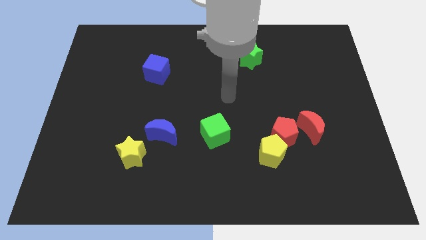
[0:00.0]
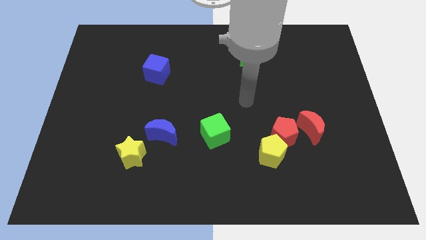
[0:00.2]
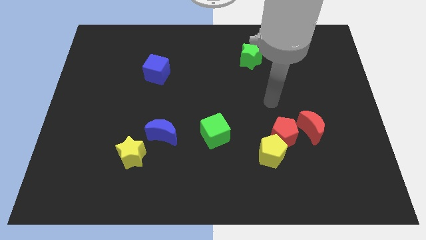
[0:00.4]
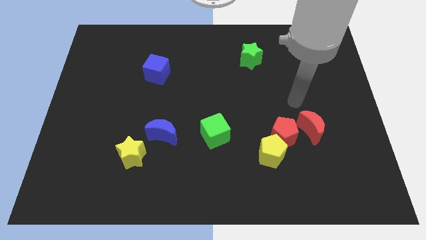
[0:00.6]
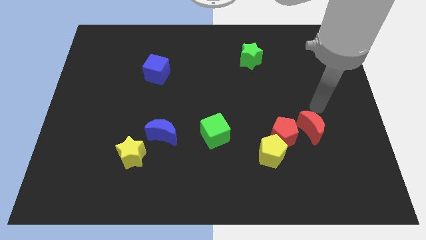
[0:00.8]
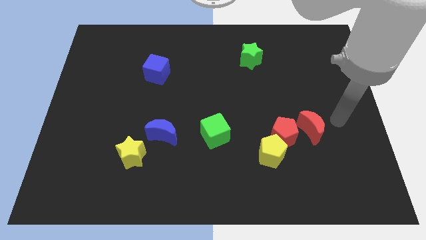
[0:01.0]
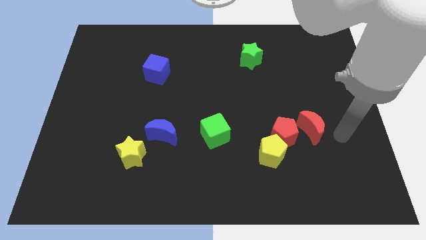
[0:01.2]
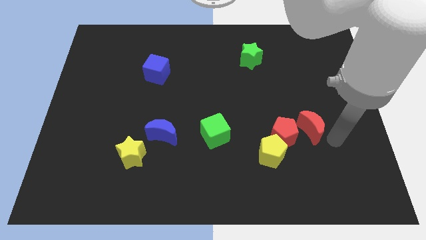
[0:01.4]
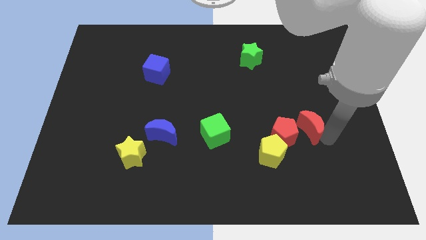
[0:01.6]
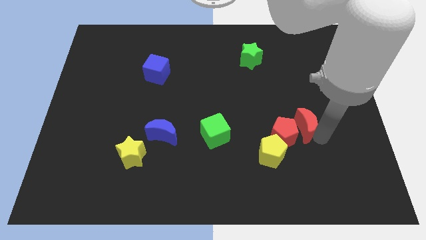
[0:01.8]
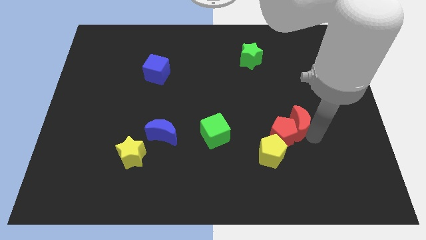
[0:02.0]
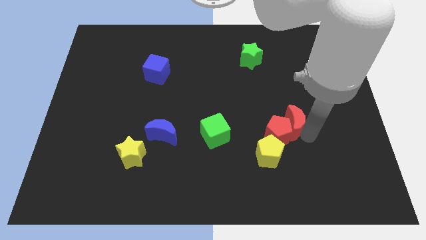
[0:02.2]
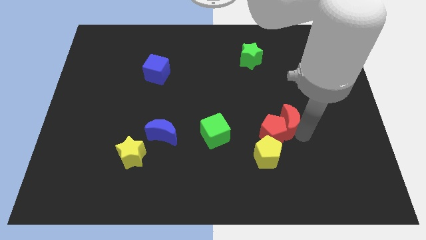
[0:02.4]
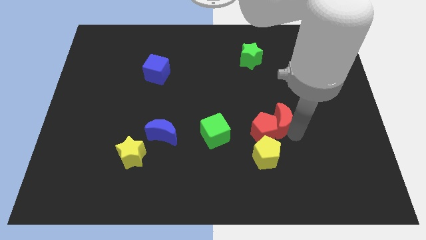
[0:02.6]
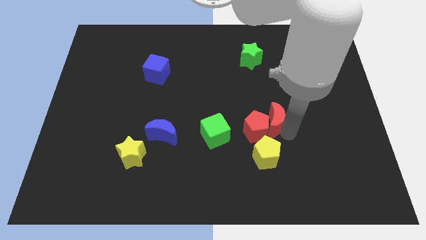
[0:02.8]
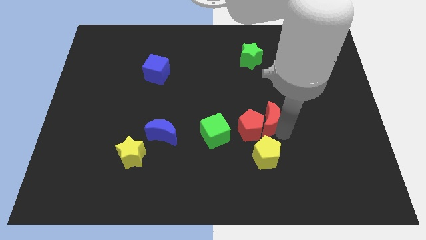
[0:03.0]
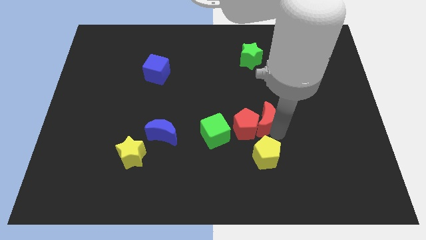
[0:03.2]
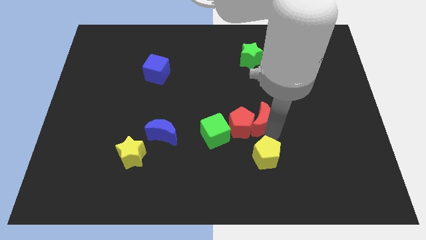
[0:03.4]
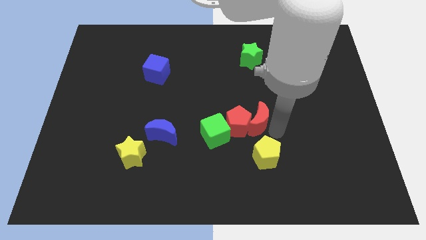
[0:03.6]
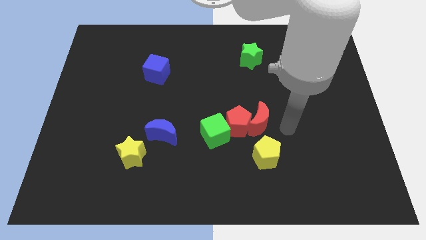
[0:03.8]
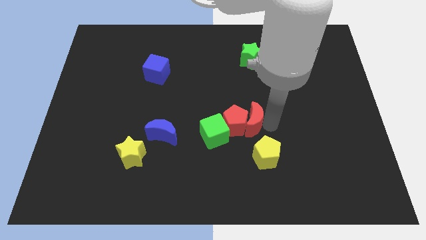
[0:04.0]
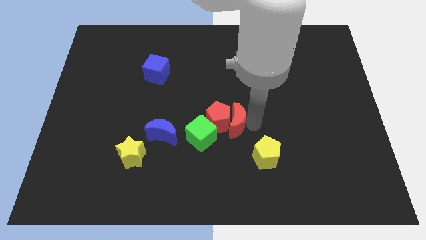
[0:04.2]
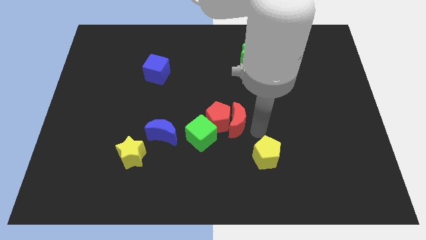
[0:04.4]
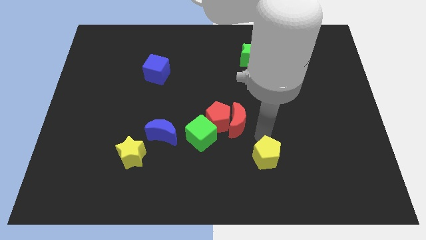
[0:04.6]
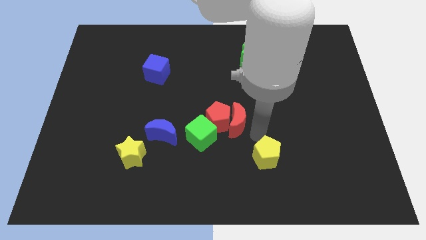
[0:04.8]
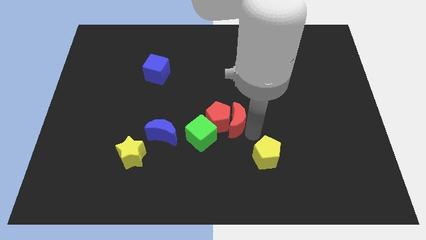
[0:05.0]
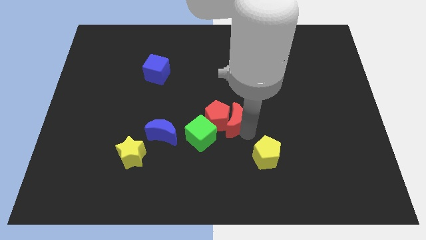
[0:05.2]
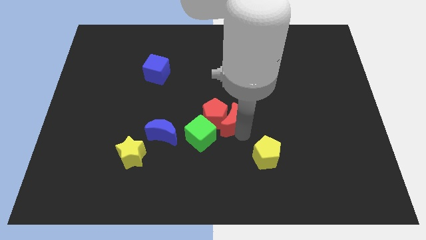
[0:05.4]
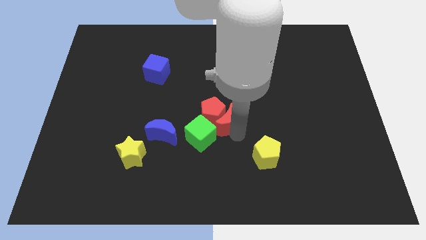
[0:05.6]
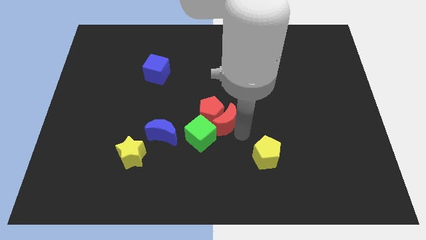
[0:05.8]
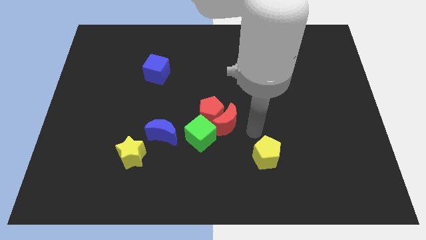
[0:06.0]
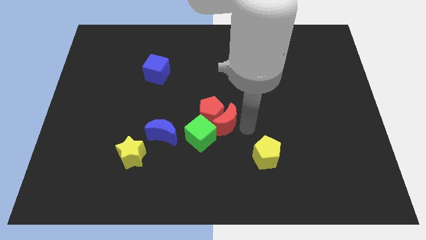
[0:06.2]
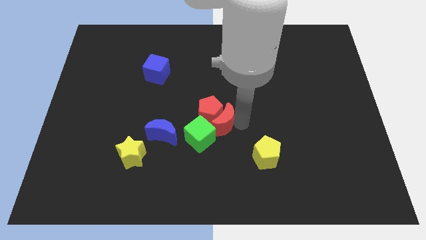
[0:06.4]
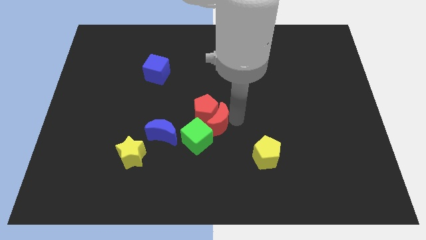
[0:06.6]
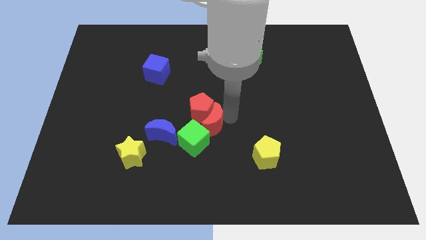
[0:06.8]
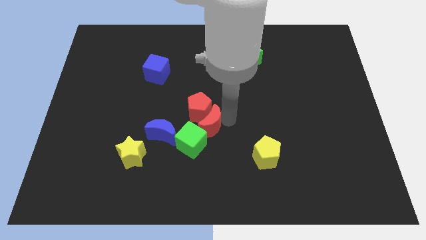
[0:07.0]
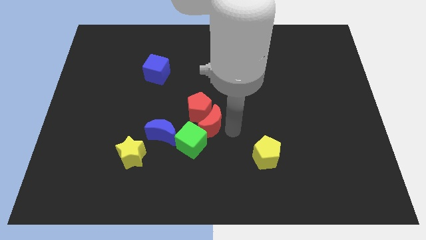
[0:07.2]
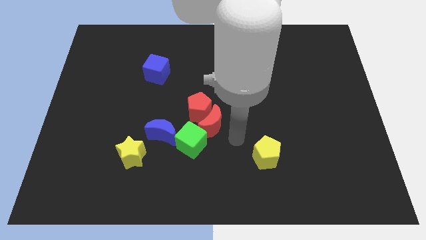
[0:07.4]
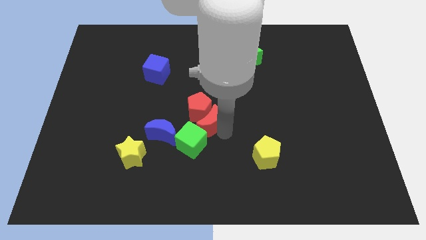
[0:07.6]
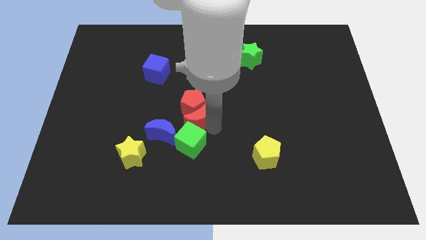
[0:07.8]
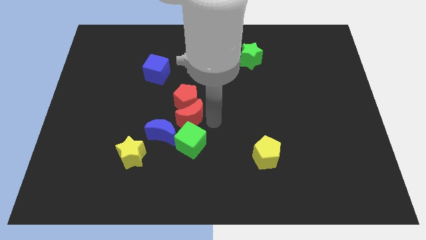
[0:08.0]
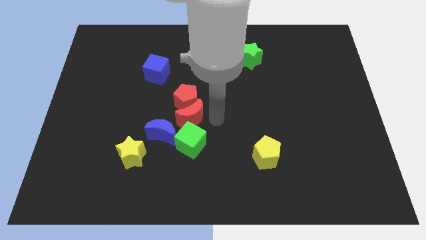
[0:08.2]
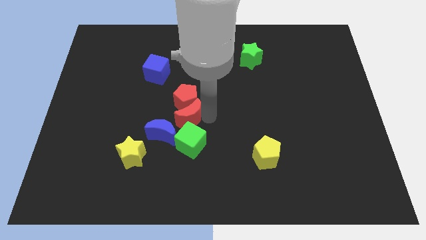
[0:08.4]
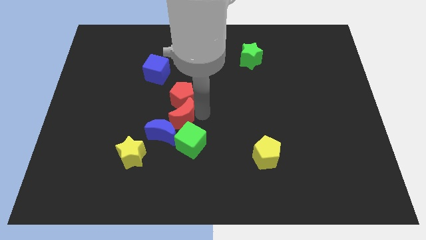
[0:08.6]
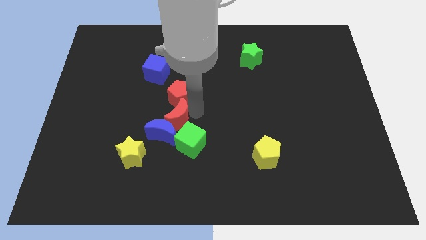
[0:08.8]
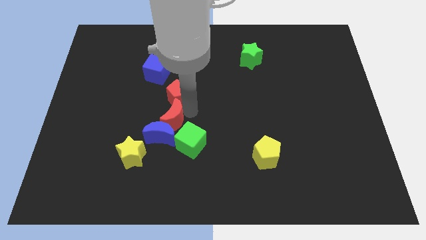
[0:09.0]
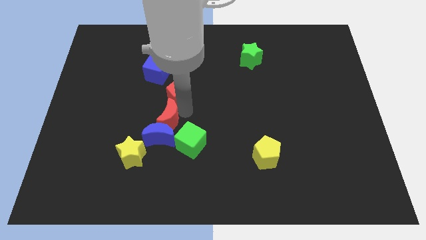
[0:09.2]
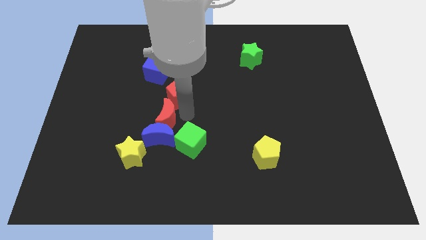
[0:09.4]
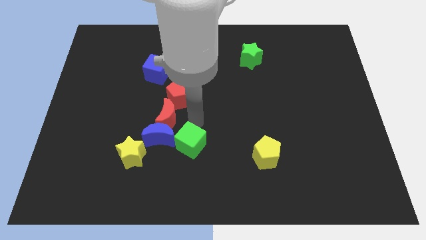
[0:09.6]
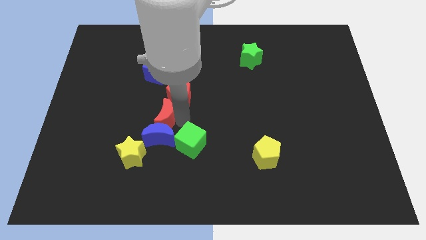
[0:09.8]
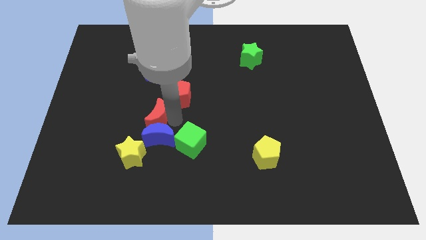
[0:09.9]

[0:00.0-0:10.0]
move the red moon to the top of the yellow star

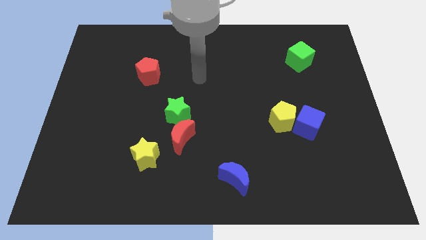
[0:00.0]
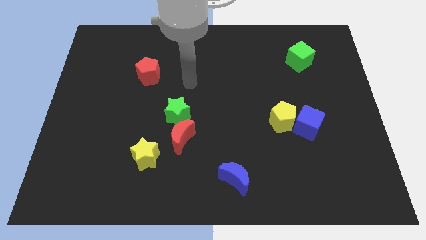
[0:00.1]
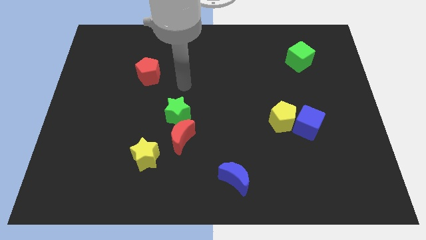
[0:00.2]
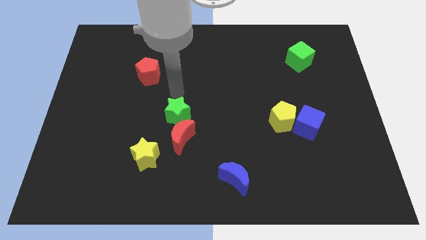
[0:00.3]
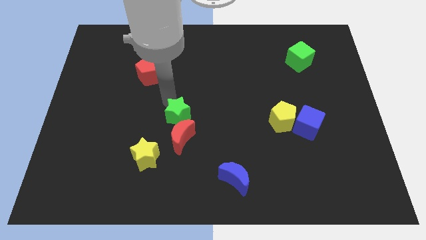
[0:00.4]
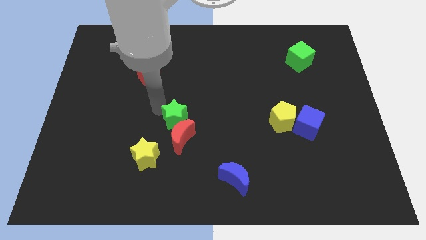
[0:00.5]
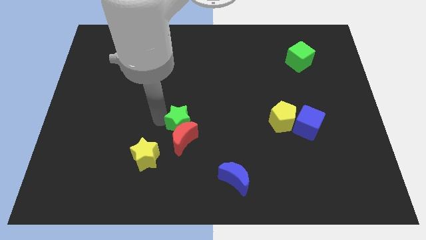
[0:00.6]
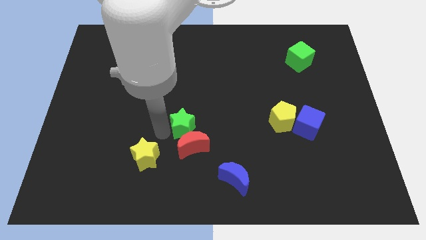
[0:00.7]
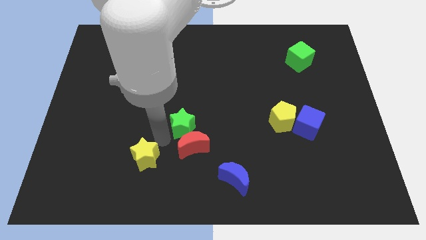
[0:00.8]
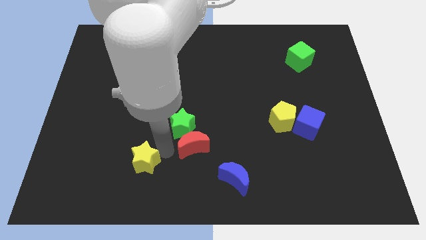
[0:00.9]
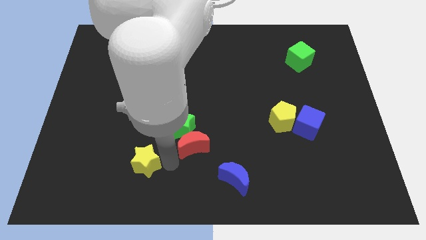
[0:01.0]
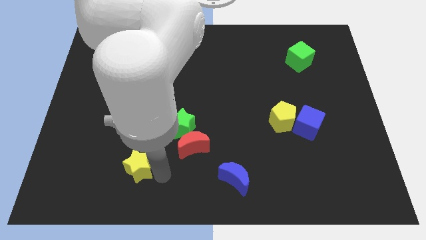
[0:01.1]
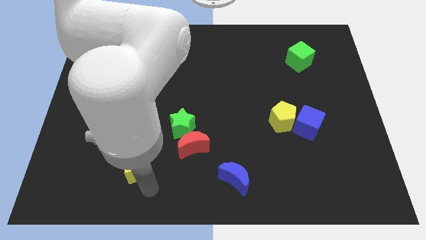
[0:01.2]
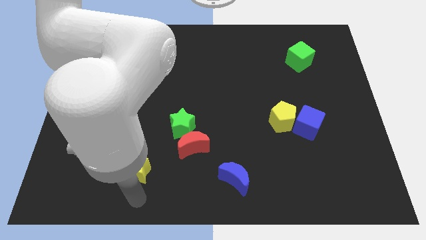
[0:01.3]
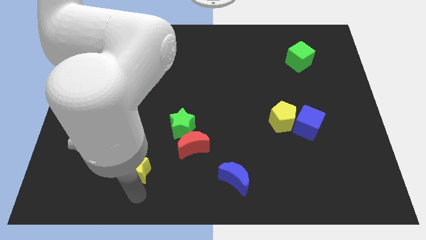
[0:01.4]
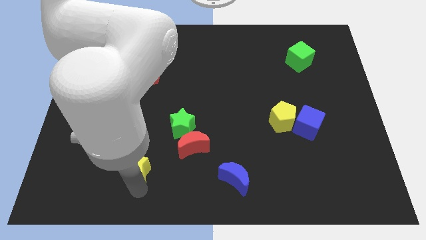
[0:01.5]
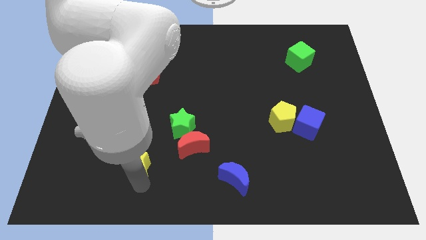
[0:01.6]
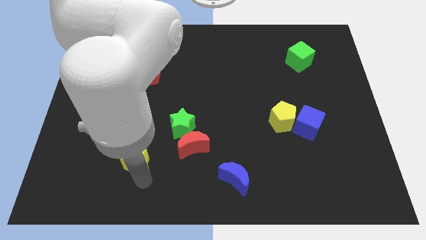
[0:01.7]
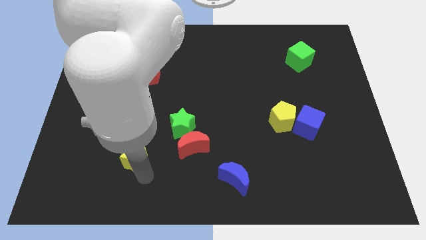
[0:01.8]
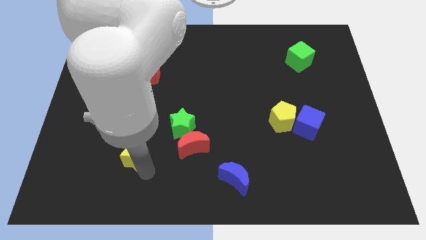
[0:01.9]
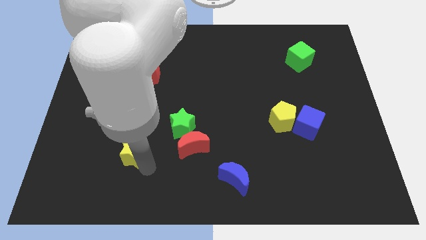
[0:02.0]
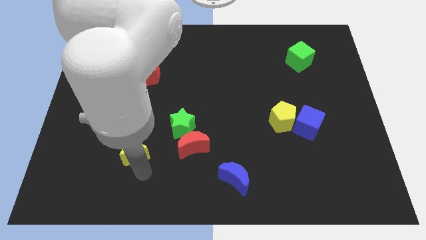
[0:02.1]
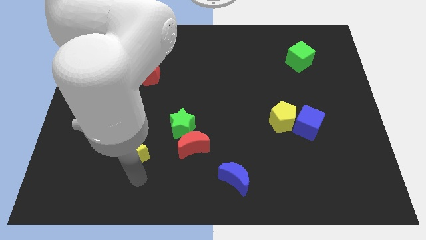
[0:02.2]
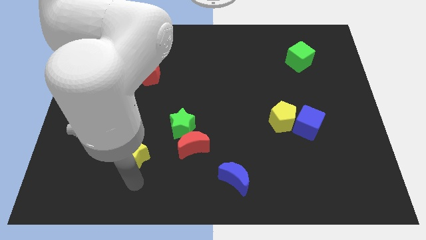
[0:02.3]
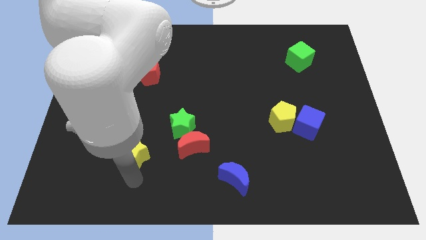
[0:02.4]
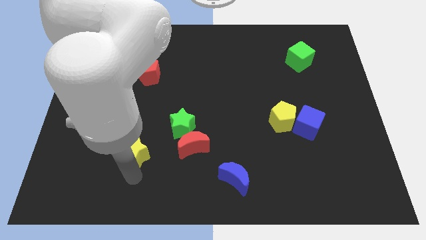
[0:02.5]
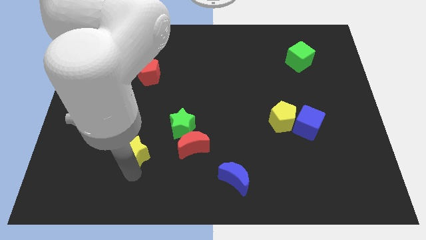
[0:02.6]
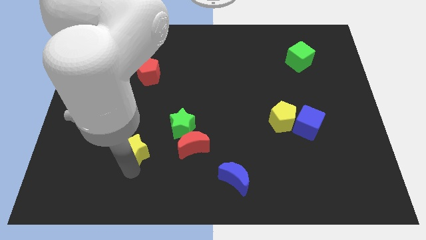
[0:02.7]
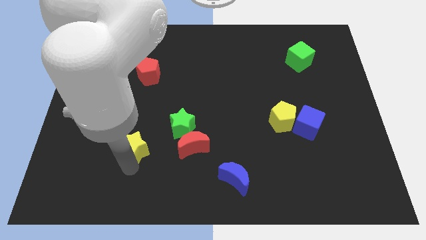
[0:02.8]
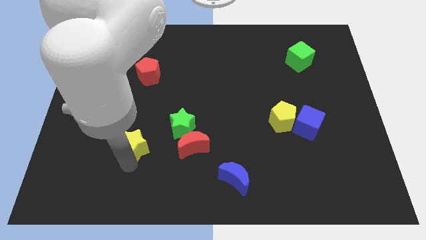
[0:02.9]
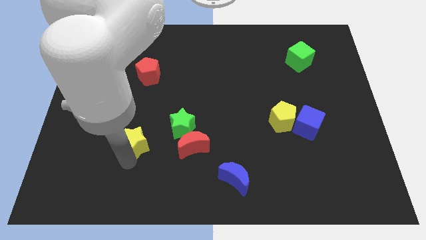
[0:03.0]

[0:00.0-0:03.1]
push the yellow star to the left of the green star
